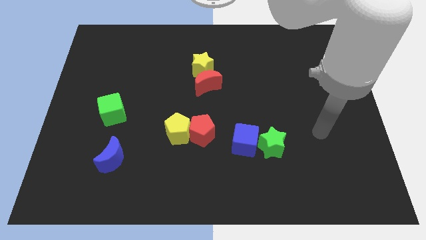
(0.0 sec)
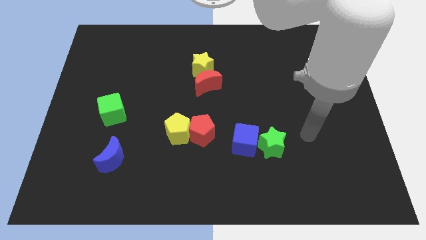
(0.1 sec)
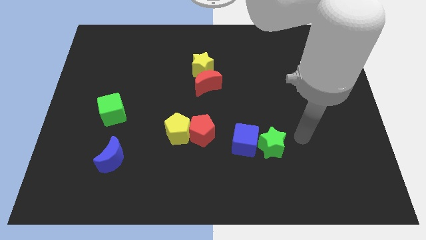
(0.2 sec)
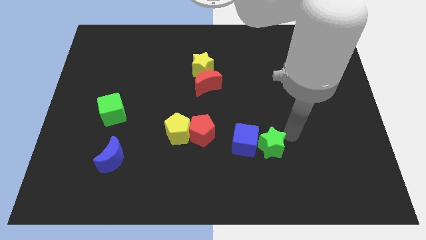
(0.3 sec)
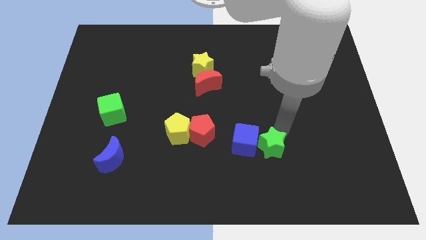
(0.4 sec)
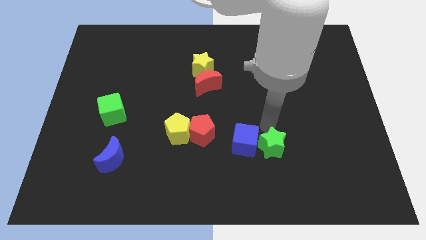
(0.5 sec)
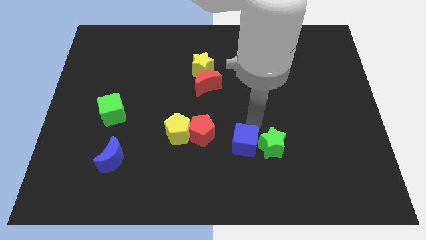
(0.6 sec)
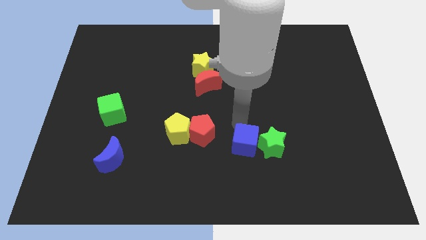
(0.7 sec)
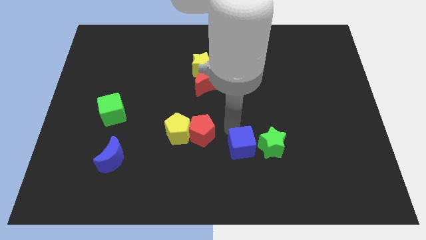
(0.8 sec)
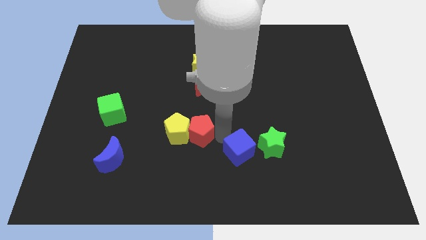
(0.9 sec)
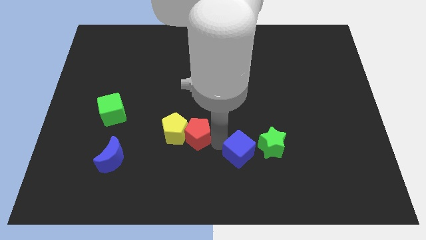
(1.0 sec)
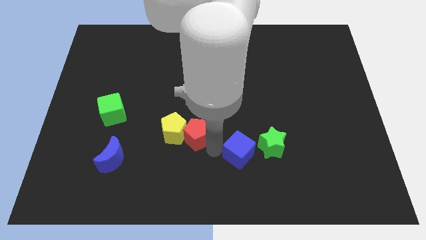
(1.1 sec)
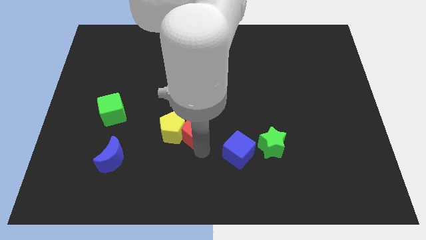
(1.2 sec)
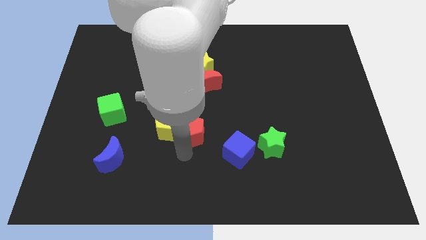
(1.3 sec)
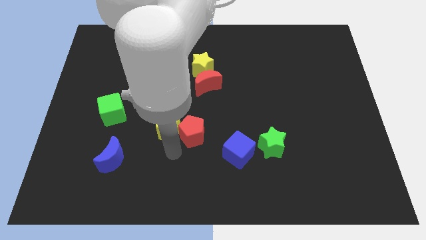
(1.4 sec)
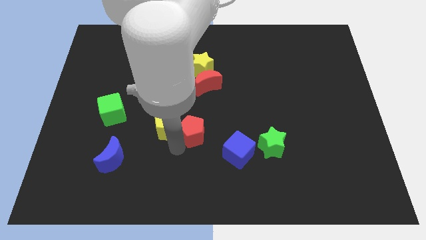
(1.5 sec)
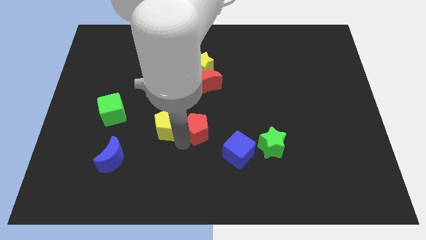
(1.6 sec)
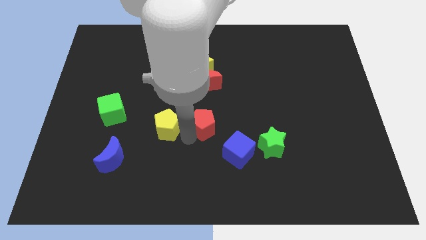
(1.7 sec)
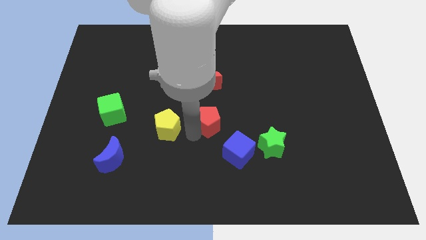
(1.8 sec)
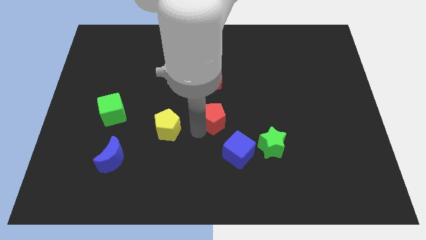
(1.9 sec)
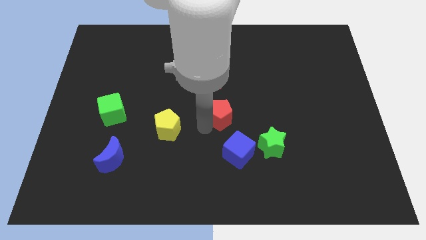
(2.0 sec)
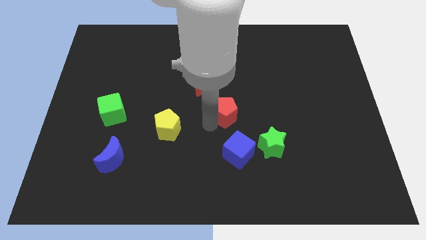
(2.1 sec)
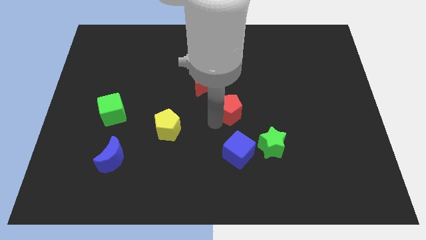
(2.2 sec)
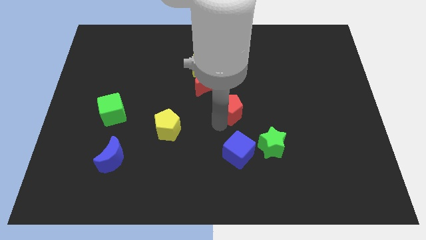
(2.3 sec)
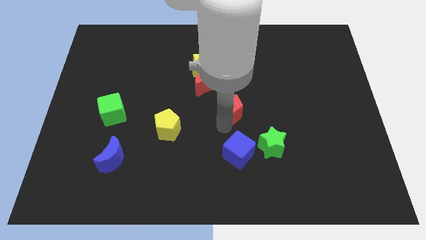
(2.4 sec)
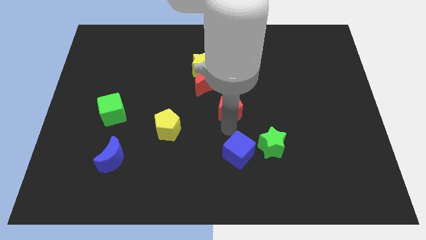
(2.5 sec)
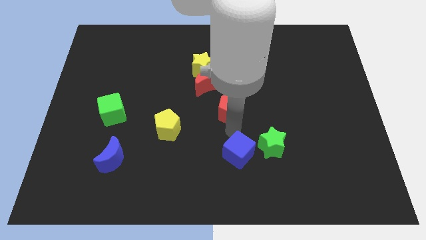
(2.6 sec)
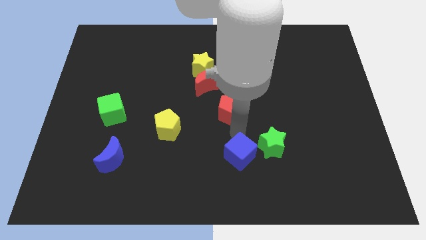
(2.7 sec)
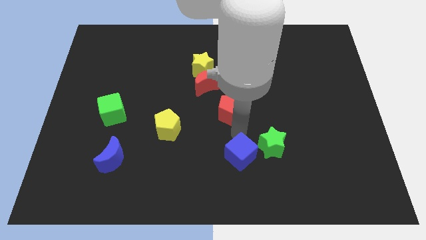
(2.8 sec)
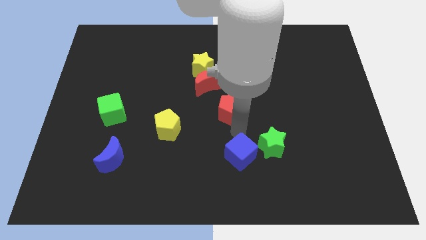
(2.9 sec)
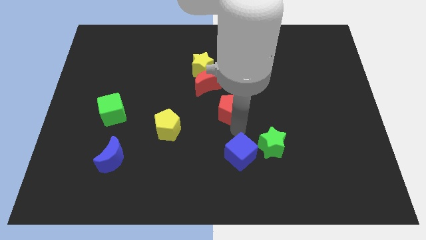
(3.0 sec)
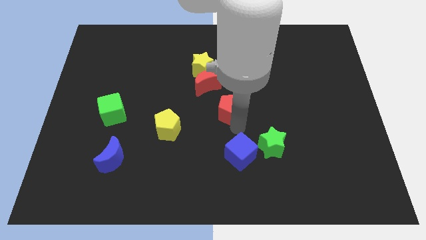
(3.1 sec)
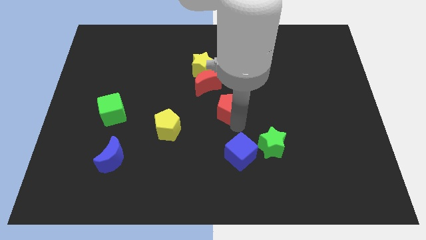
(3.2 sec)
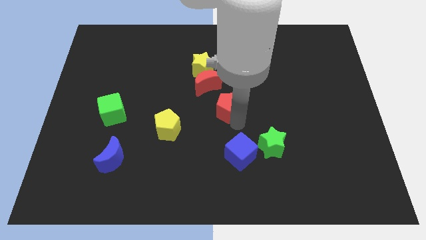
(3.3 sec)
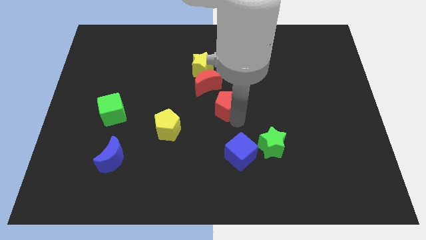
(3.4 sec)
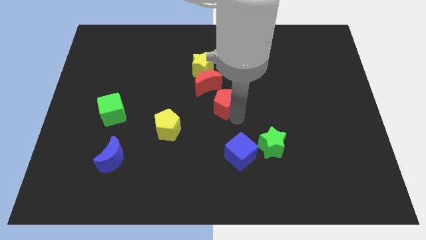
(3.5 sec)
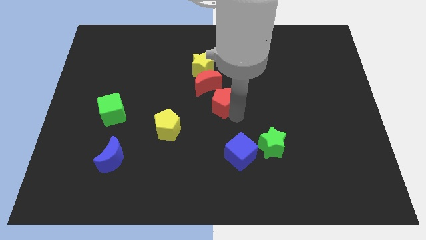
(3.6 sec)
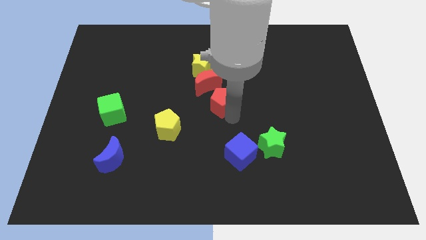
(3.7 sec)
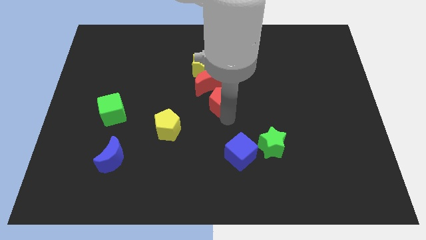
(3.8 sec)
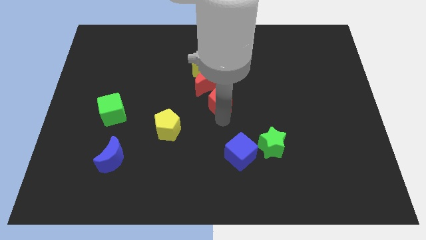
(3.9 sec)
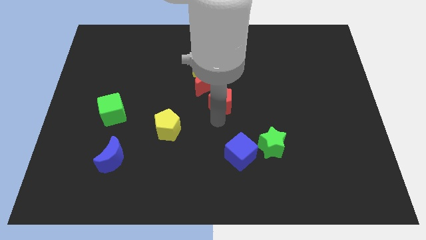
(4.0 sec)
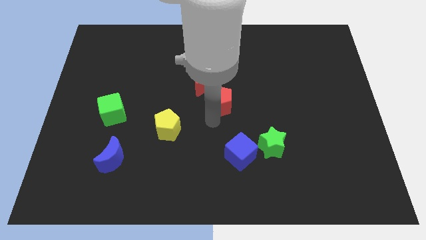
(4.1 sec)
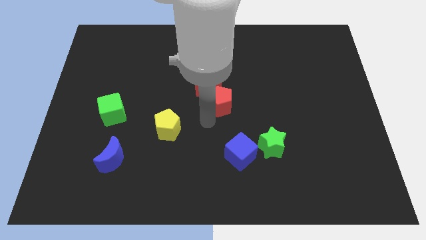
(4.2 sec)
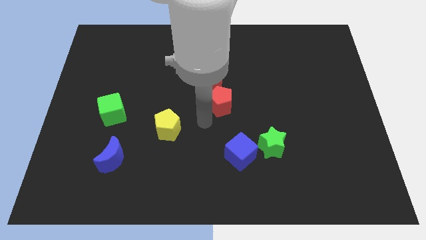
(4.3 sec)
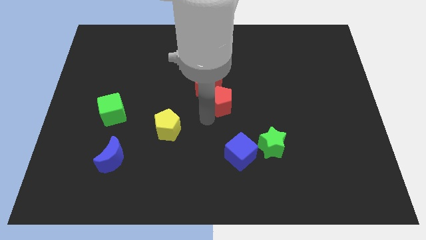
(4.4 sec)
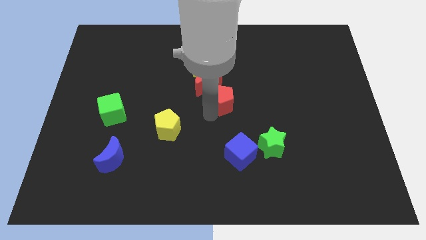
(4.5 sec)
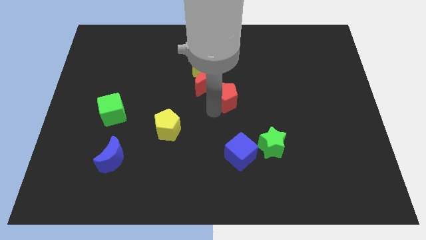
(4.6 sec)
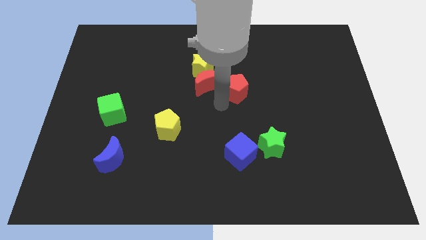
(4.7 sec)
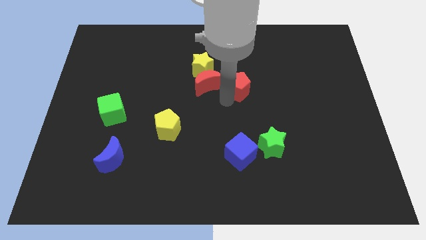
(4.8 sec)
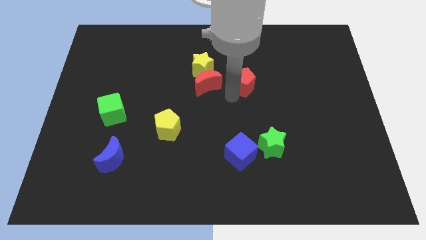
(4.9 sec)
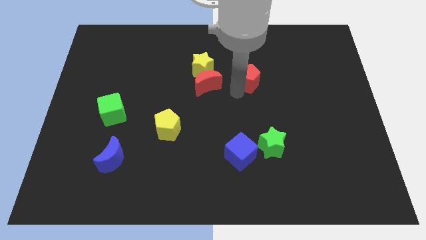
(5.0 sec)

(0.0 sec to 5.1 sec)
push the red pentagon to the right side of the yellow star

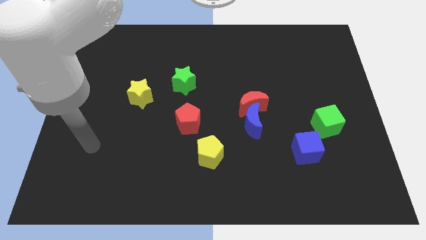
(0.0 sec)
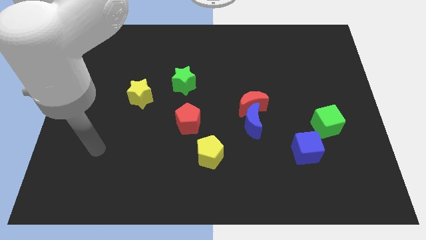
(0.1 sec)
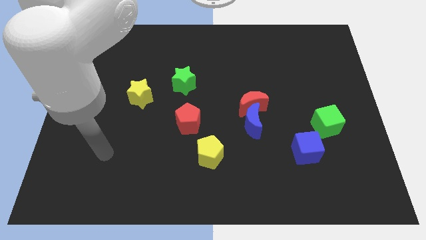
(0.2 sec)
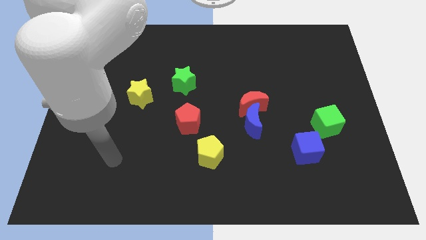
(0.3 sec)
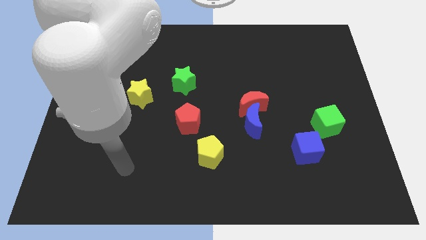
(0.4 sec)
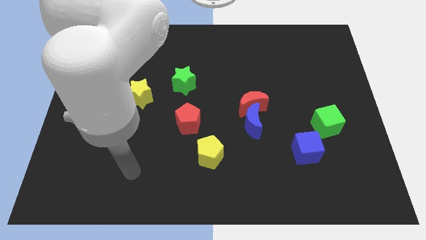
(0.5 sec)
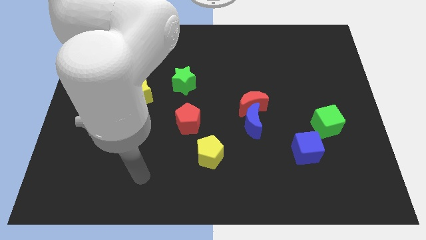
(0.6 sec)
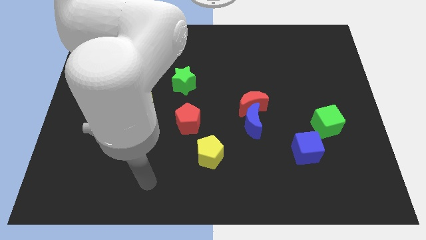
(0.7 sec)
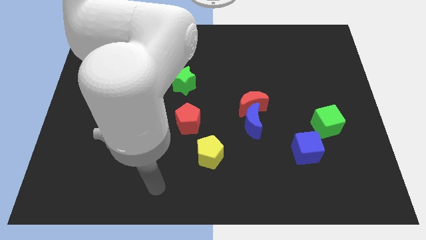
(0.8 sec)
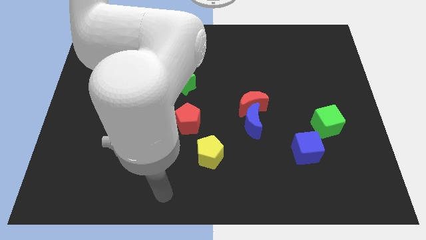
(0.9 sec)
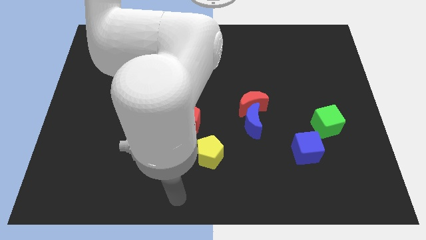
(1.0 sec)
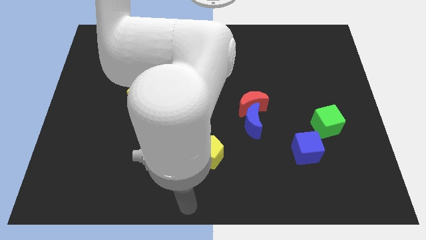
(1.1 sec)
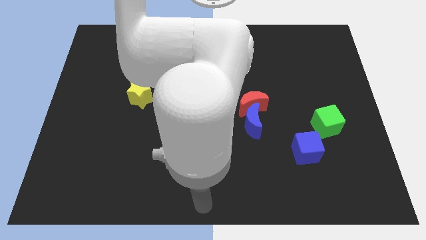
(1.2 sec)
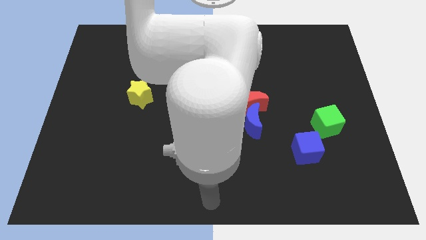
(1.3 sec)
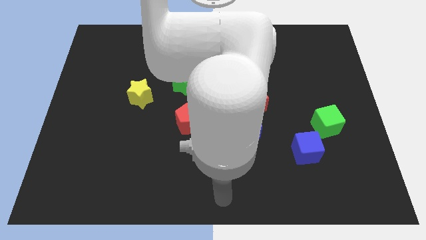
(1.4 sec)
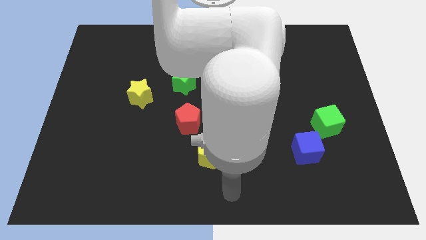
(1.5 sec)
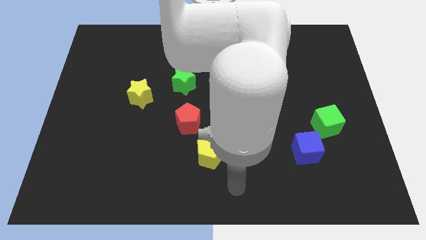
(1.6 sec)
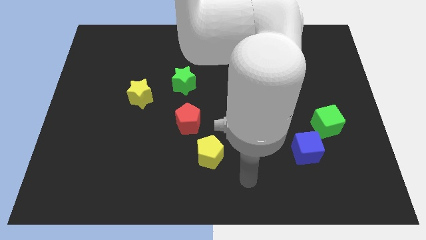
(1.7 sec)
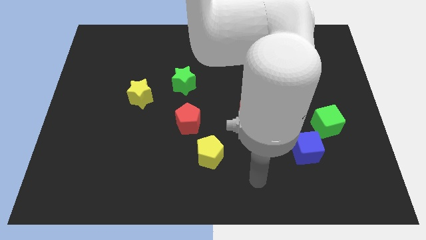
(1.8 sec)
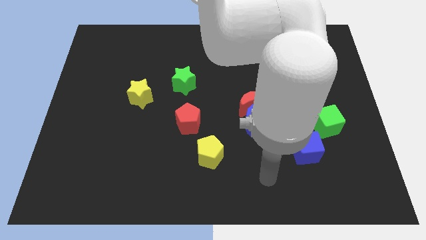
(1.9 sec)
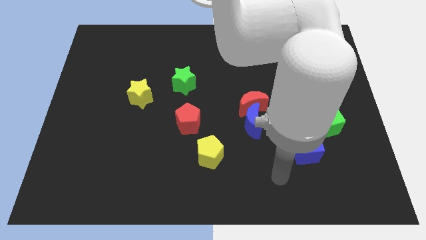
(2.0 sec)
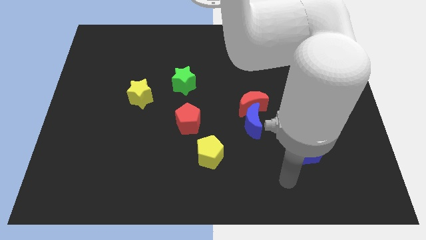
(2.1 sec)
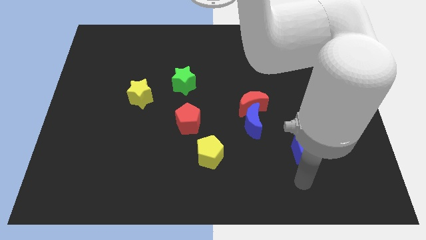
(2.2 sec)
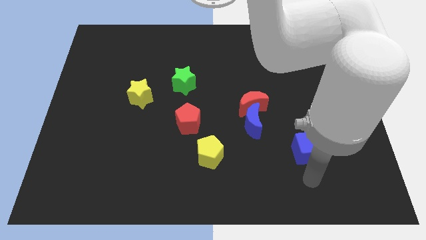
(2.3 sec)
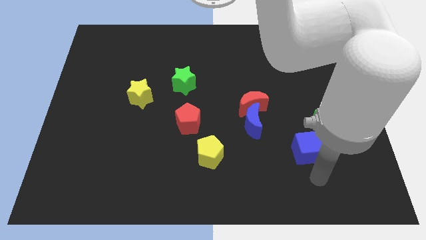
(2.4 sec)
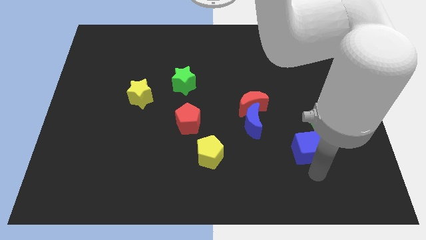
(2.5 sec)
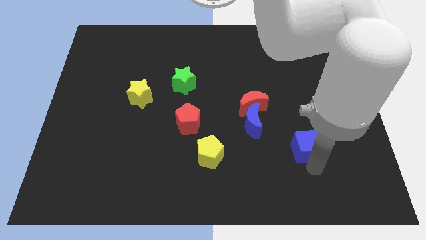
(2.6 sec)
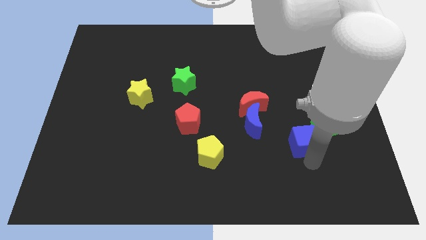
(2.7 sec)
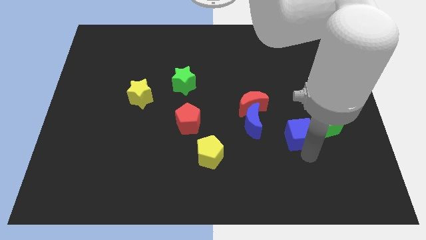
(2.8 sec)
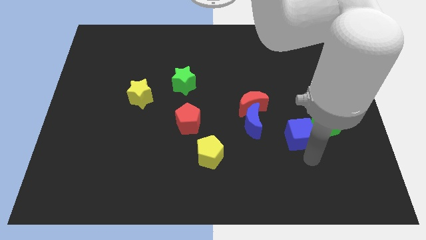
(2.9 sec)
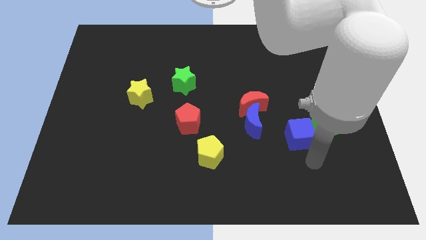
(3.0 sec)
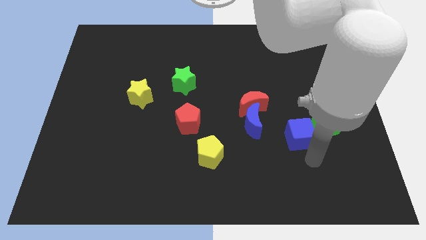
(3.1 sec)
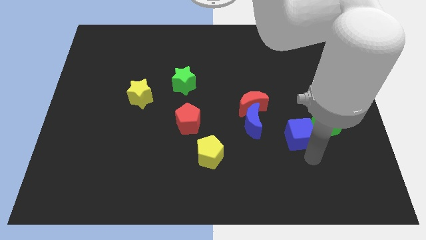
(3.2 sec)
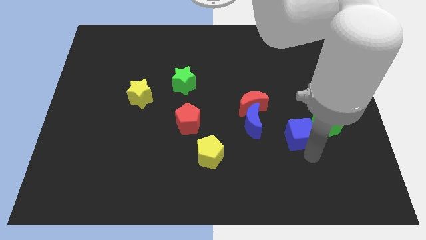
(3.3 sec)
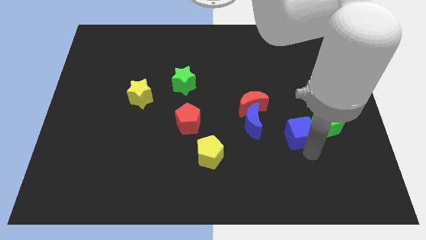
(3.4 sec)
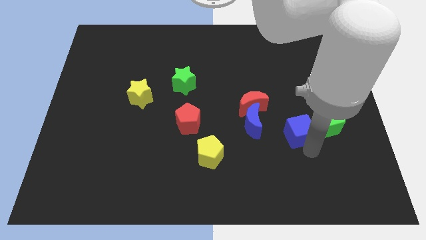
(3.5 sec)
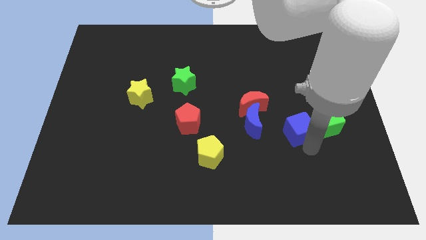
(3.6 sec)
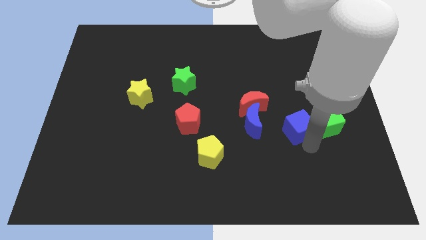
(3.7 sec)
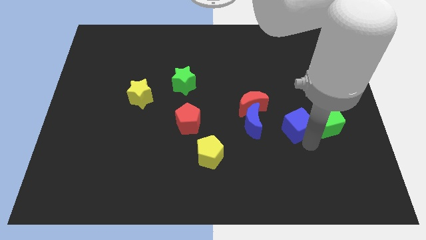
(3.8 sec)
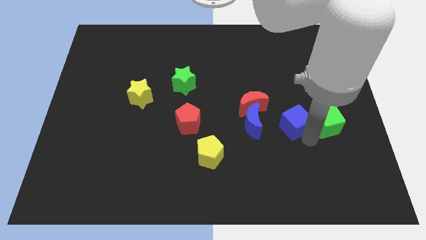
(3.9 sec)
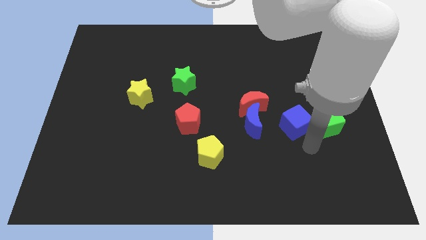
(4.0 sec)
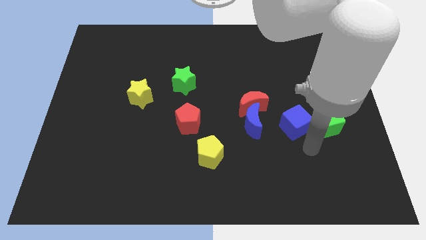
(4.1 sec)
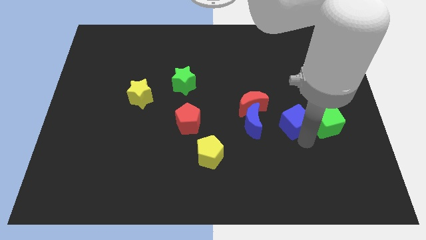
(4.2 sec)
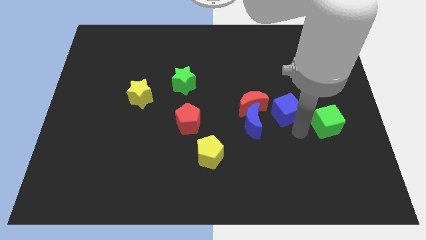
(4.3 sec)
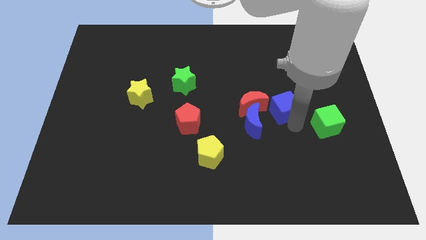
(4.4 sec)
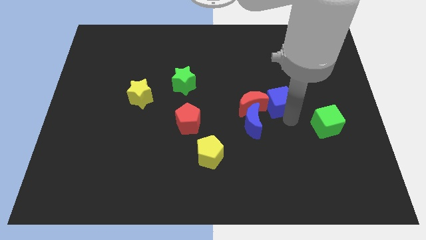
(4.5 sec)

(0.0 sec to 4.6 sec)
slide the blue cube to the top right of the red moon
